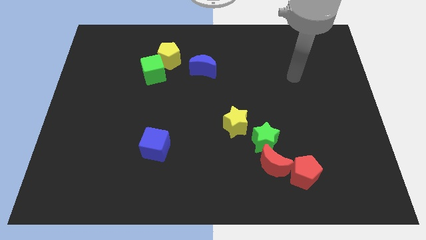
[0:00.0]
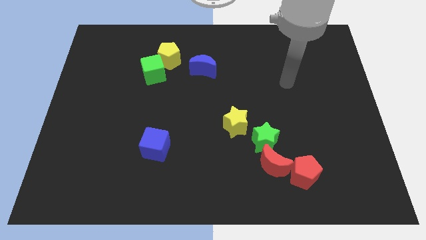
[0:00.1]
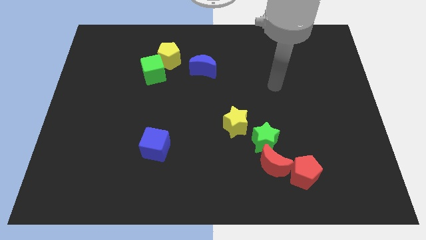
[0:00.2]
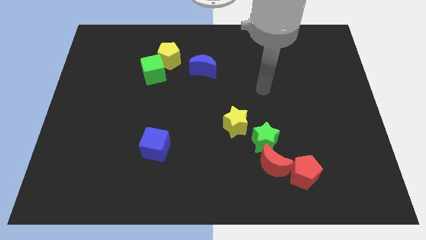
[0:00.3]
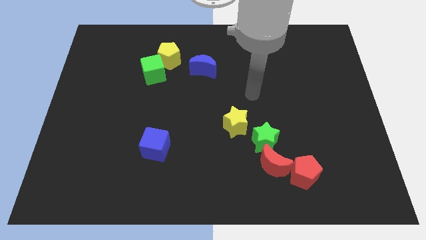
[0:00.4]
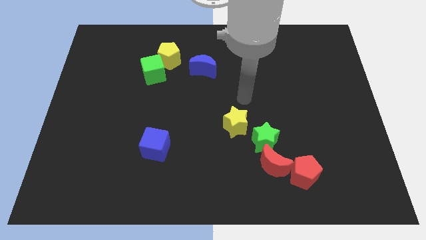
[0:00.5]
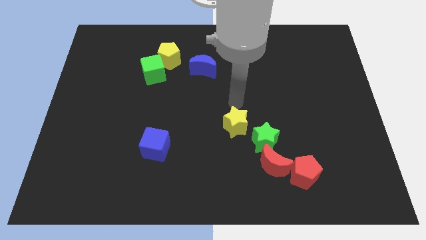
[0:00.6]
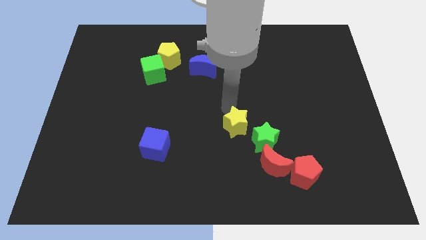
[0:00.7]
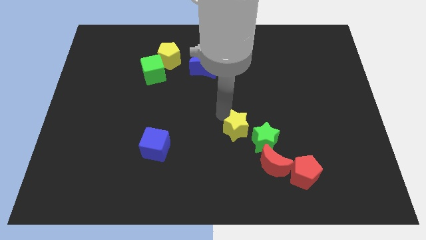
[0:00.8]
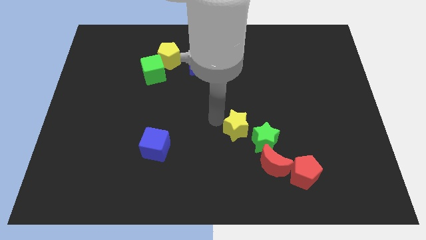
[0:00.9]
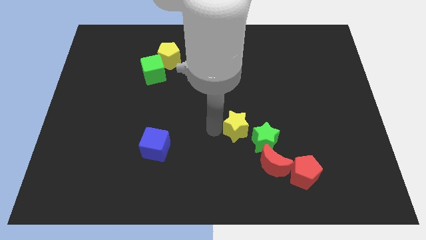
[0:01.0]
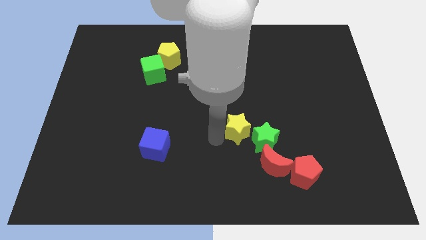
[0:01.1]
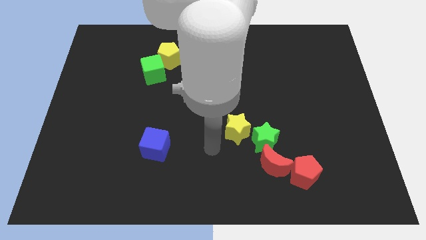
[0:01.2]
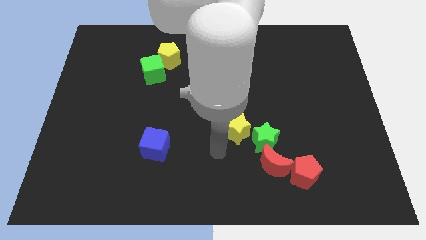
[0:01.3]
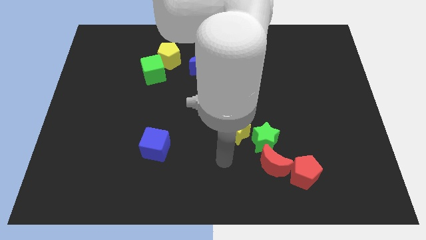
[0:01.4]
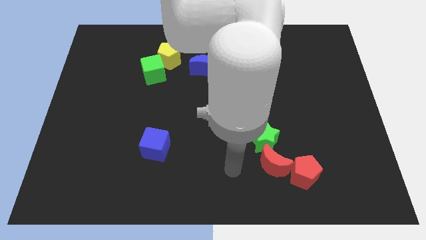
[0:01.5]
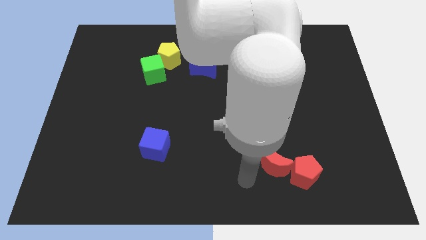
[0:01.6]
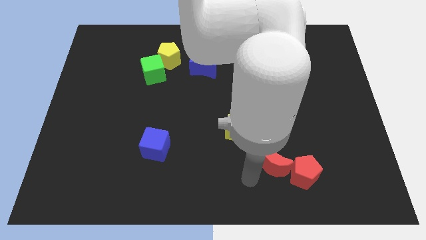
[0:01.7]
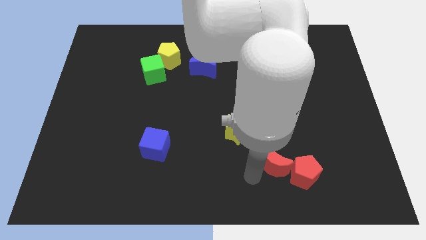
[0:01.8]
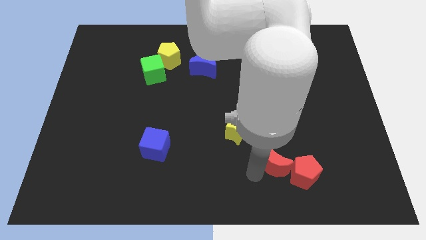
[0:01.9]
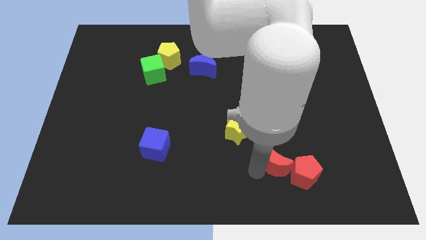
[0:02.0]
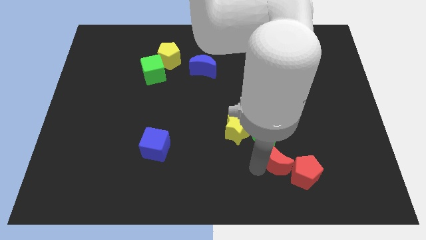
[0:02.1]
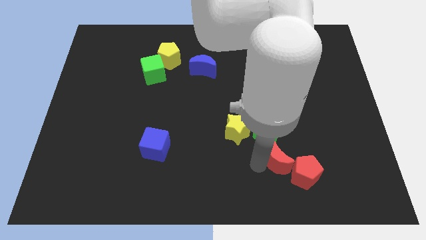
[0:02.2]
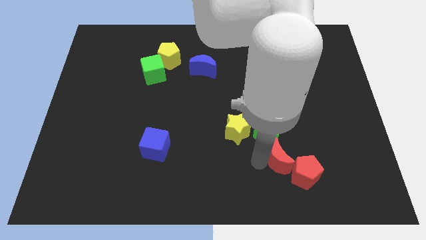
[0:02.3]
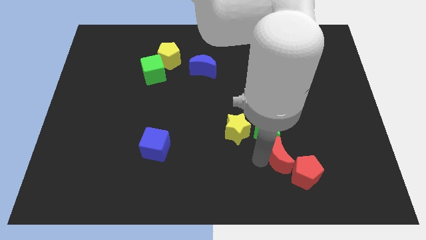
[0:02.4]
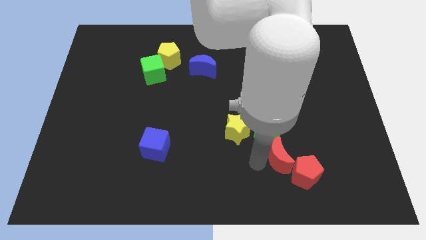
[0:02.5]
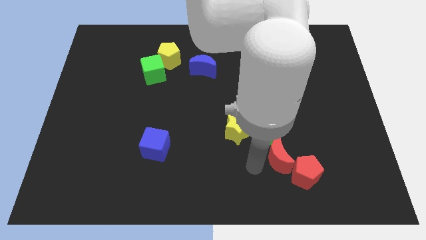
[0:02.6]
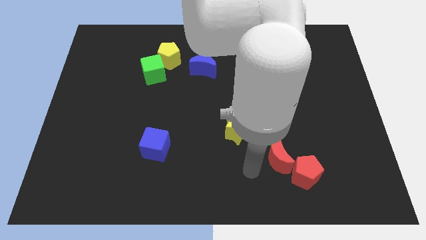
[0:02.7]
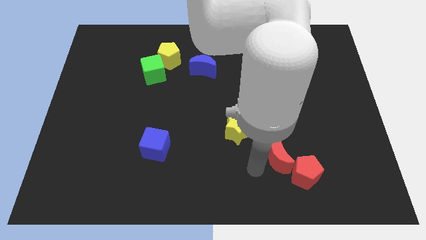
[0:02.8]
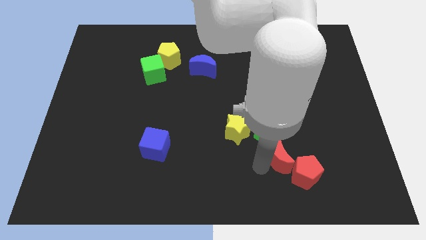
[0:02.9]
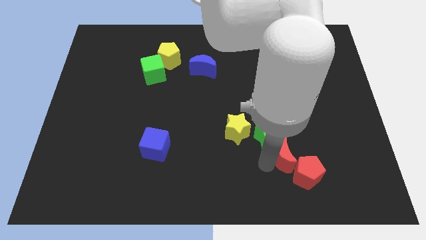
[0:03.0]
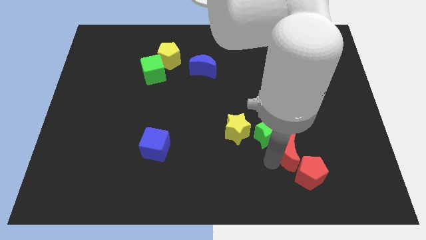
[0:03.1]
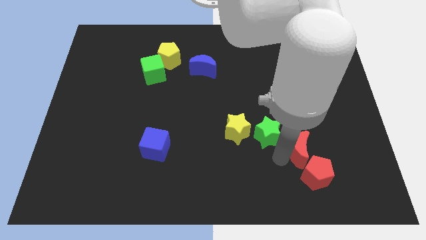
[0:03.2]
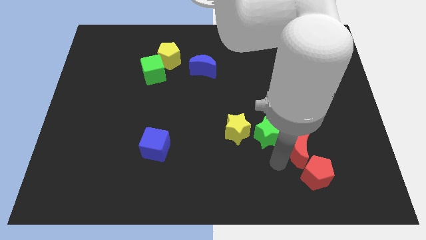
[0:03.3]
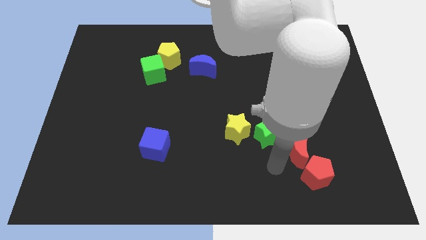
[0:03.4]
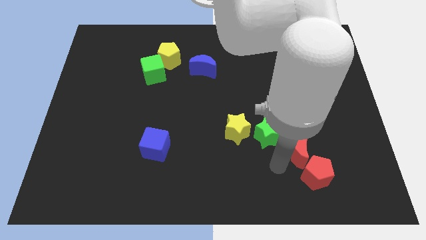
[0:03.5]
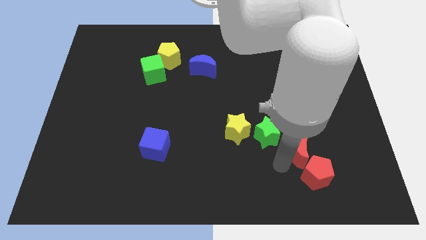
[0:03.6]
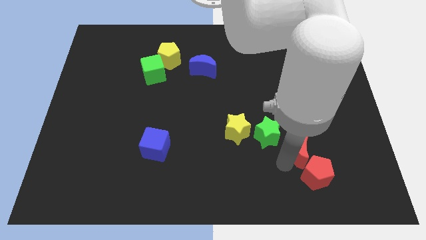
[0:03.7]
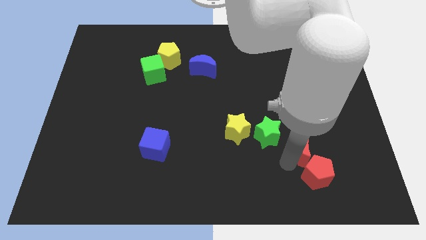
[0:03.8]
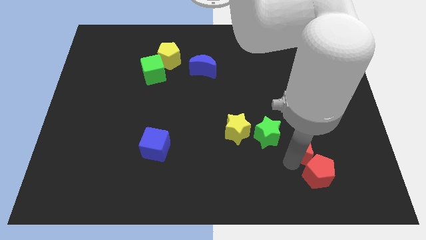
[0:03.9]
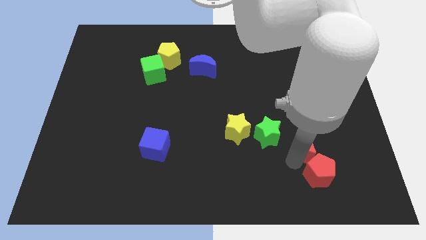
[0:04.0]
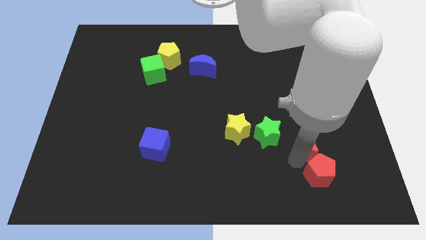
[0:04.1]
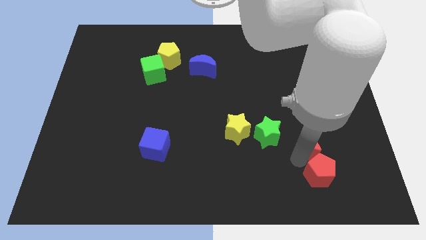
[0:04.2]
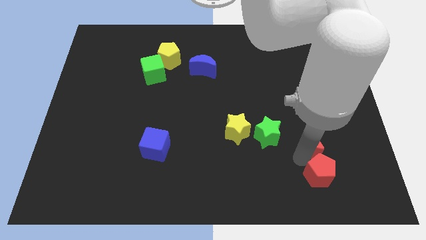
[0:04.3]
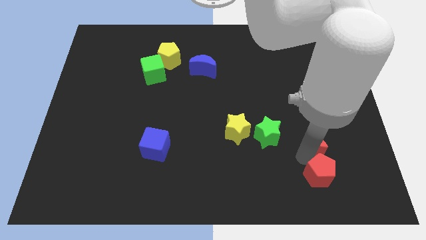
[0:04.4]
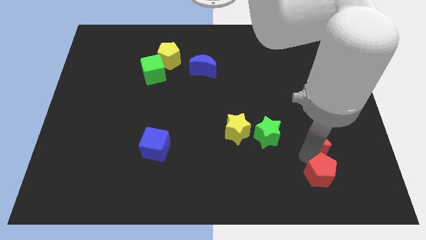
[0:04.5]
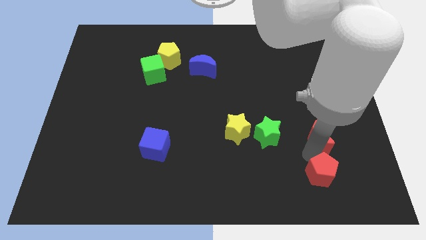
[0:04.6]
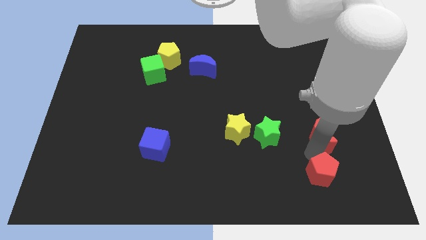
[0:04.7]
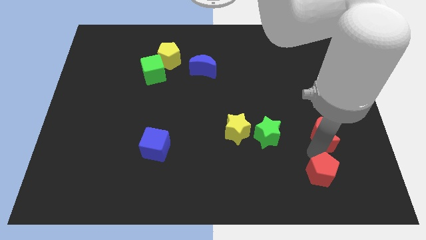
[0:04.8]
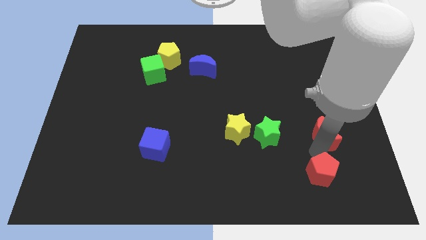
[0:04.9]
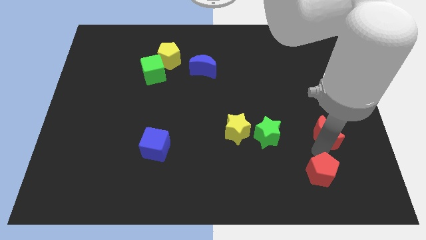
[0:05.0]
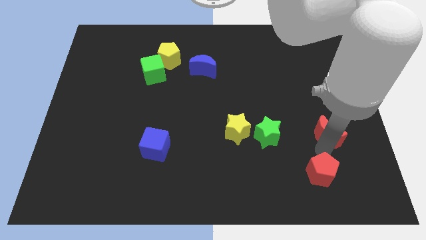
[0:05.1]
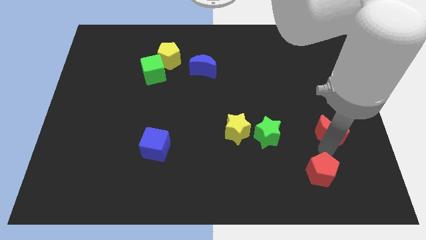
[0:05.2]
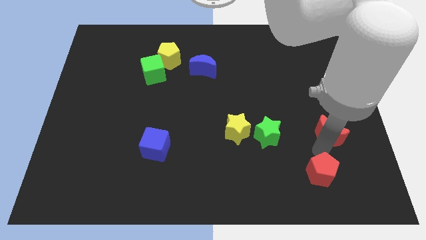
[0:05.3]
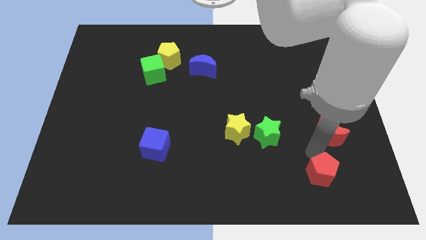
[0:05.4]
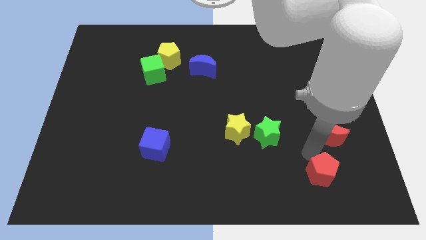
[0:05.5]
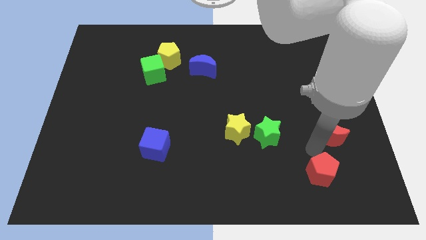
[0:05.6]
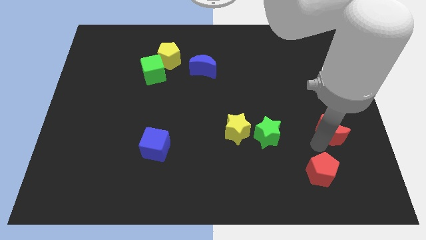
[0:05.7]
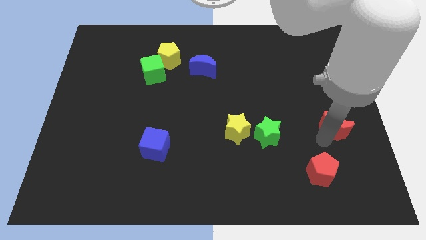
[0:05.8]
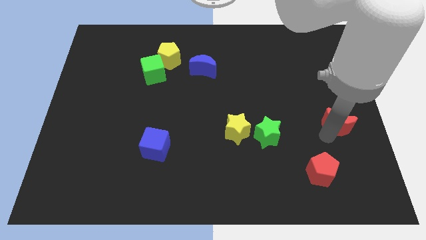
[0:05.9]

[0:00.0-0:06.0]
slide the red moon to the right side

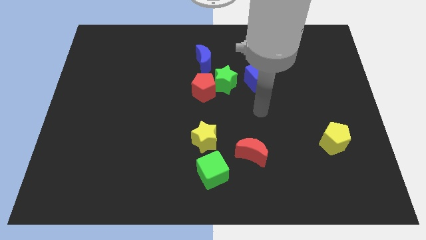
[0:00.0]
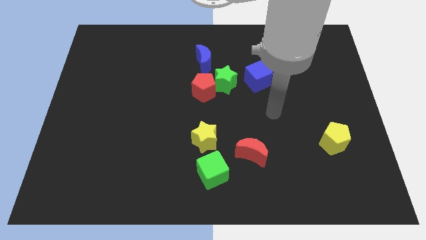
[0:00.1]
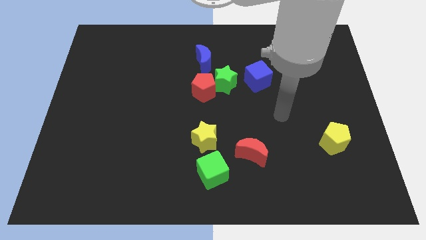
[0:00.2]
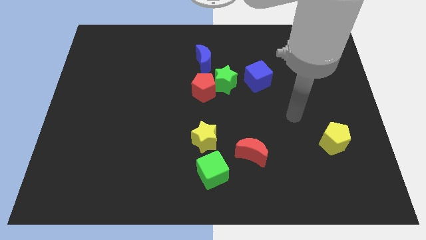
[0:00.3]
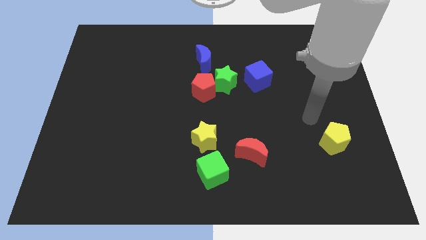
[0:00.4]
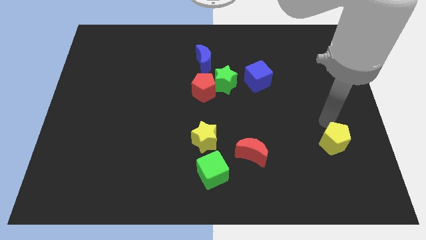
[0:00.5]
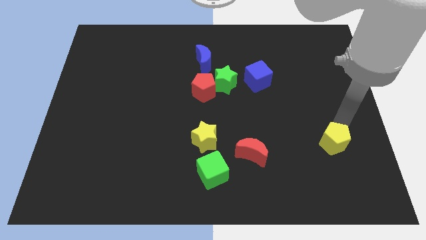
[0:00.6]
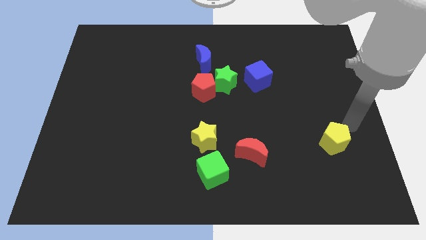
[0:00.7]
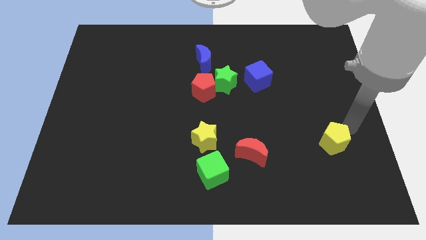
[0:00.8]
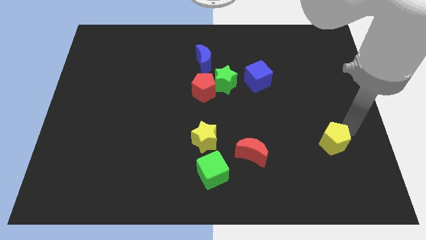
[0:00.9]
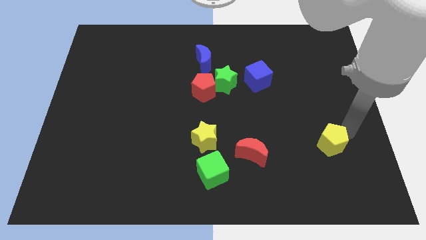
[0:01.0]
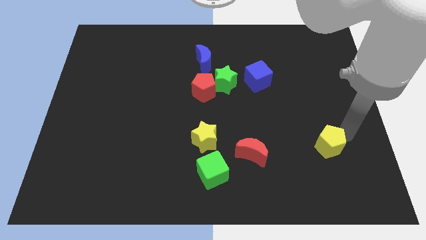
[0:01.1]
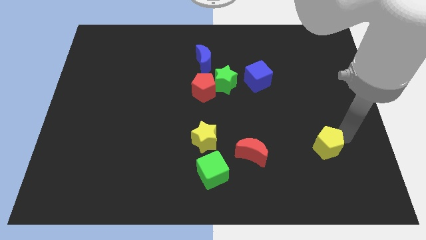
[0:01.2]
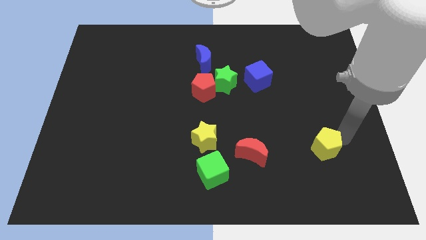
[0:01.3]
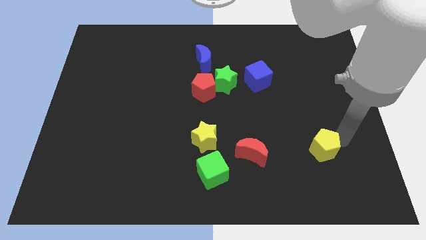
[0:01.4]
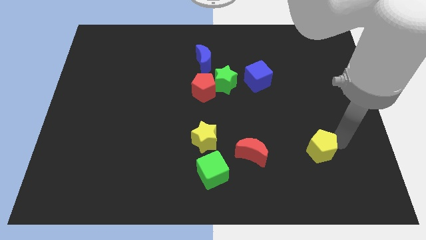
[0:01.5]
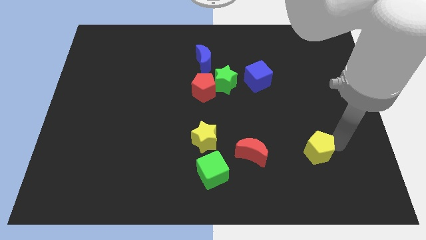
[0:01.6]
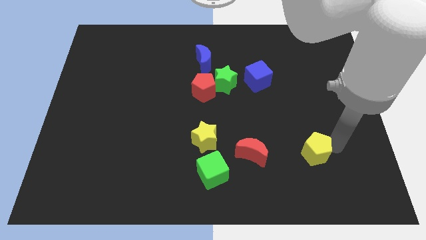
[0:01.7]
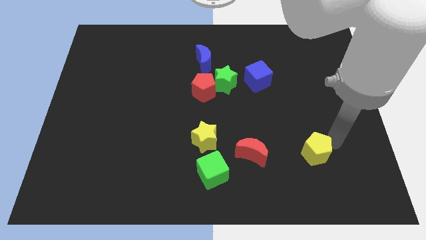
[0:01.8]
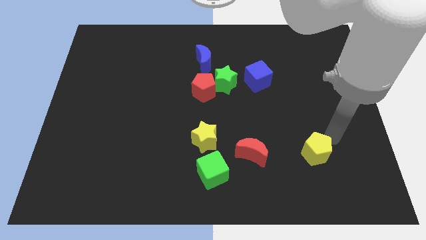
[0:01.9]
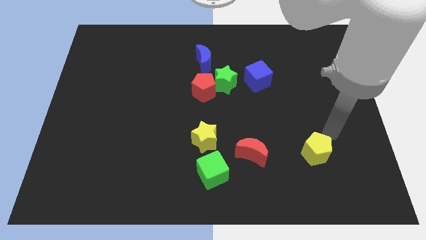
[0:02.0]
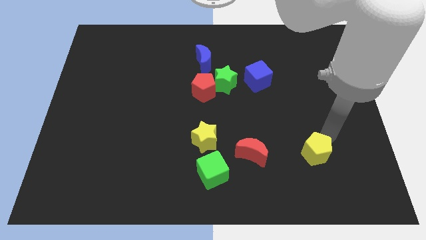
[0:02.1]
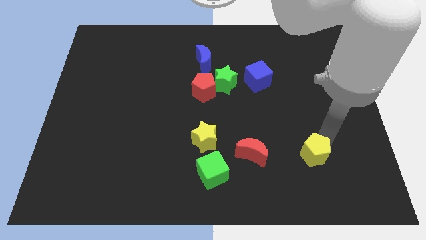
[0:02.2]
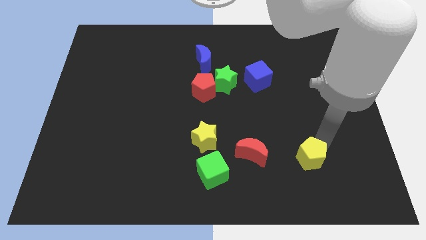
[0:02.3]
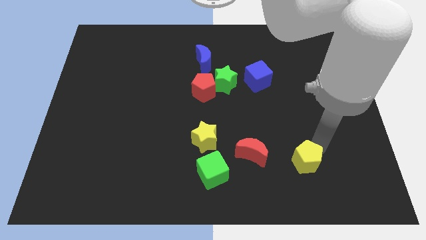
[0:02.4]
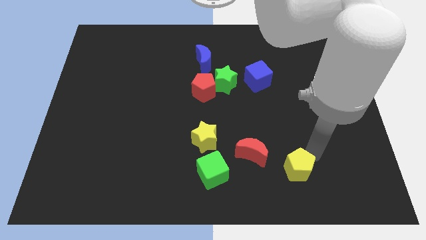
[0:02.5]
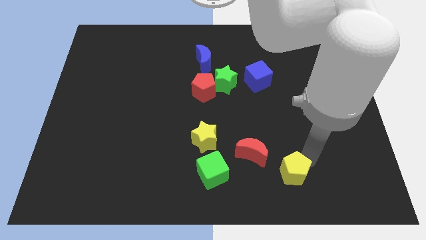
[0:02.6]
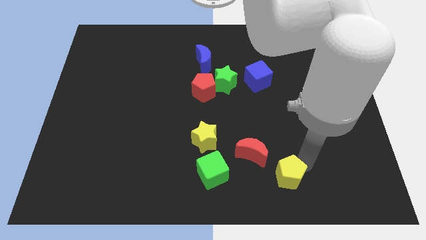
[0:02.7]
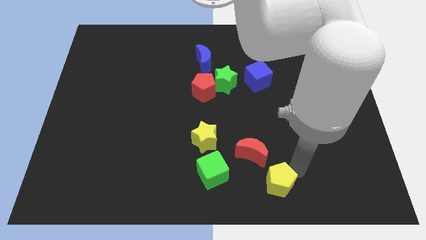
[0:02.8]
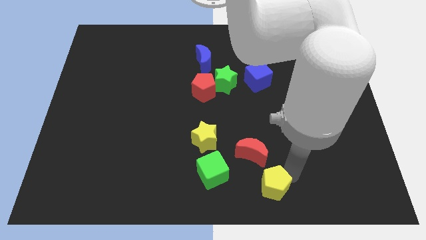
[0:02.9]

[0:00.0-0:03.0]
push the yellow pentagon to the bottom side
